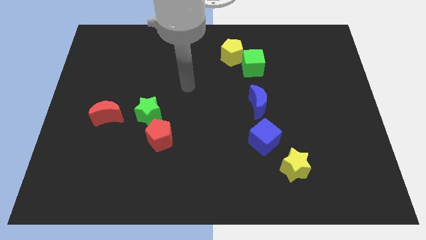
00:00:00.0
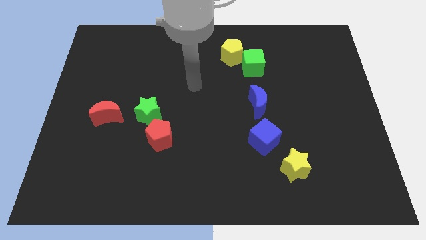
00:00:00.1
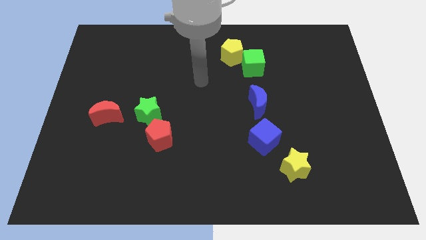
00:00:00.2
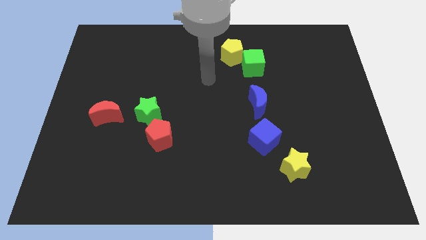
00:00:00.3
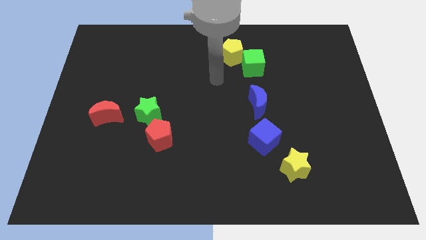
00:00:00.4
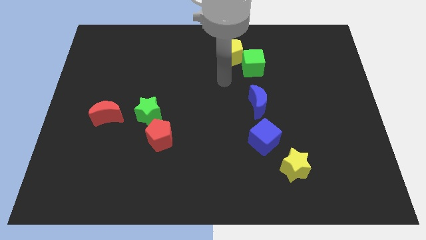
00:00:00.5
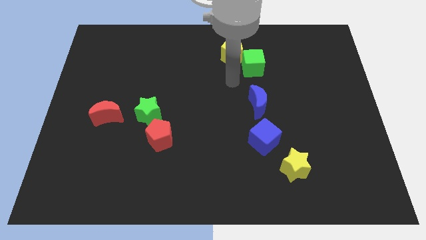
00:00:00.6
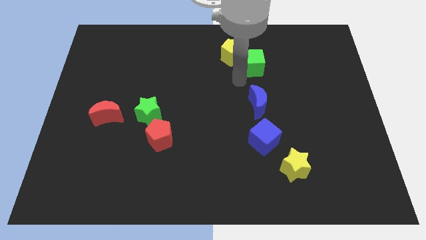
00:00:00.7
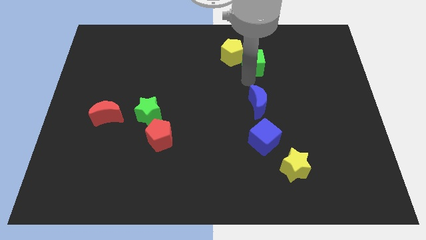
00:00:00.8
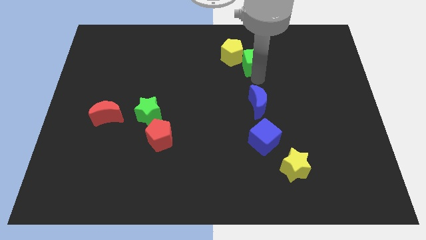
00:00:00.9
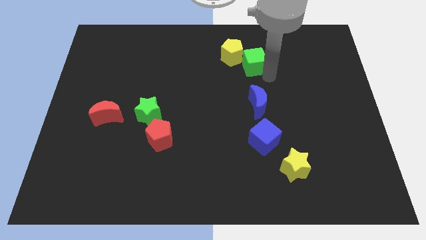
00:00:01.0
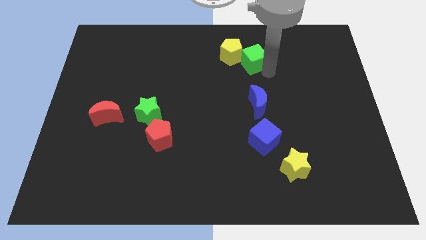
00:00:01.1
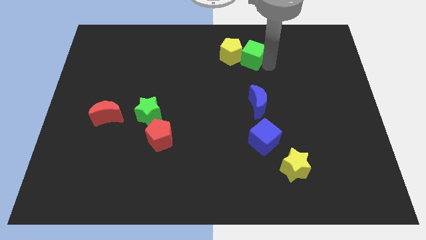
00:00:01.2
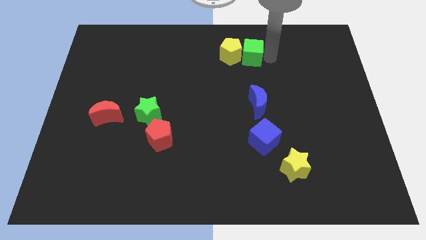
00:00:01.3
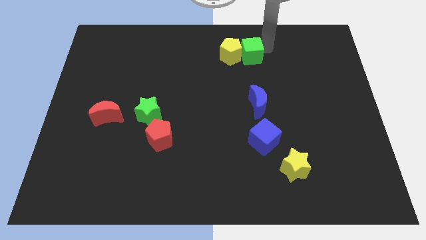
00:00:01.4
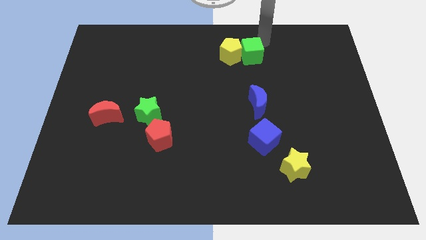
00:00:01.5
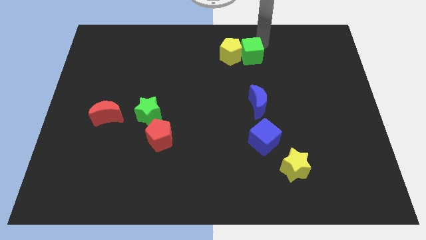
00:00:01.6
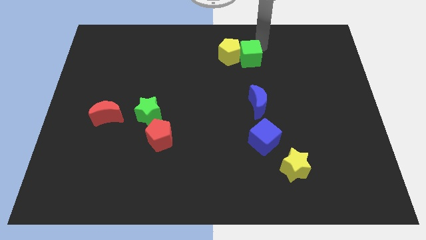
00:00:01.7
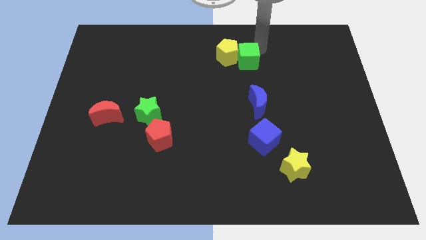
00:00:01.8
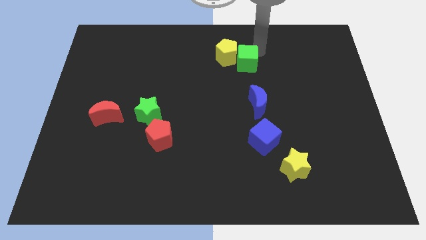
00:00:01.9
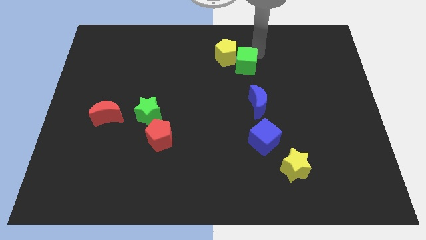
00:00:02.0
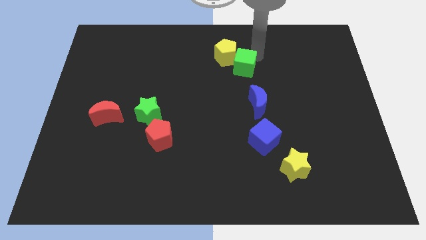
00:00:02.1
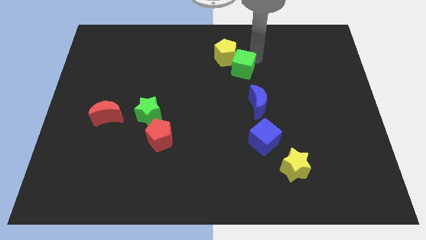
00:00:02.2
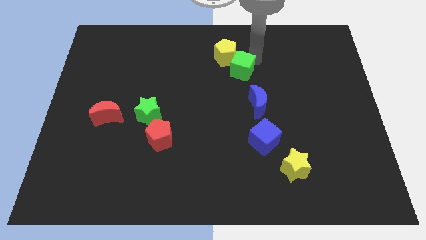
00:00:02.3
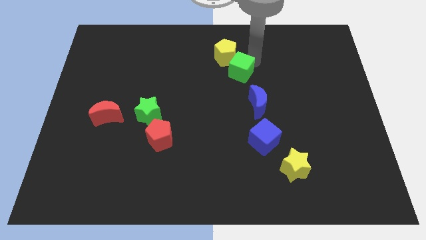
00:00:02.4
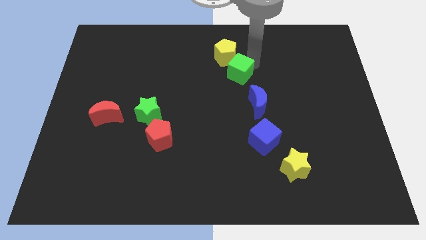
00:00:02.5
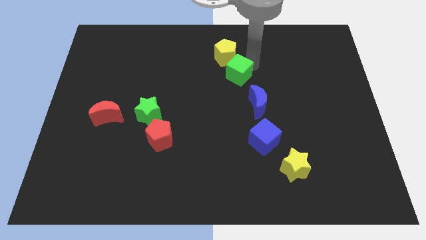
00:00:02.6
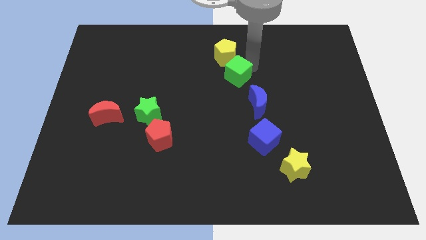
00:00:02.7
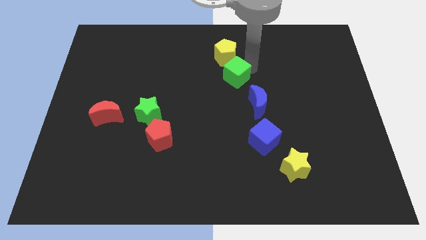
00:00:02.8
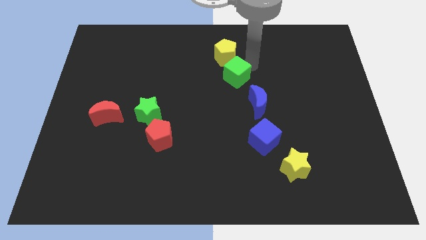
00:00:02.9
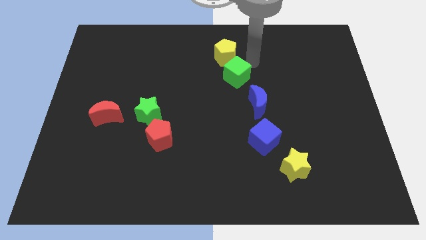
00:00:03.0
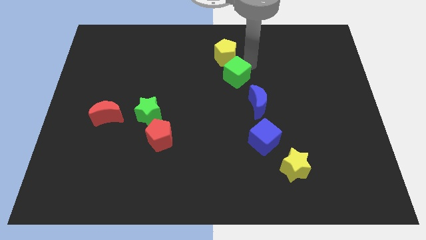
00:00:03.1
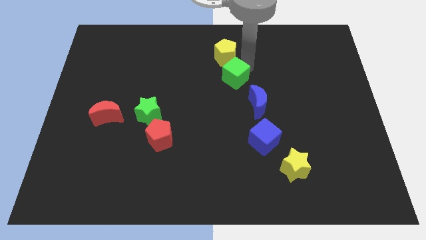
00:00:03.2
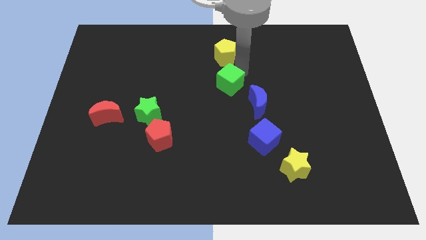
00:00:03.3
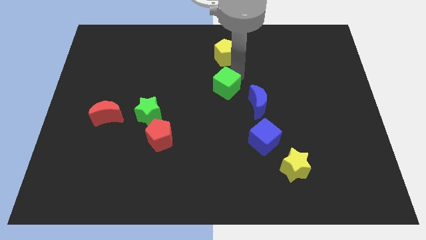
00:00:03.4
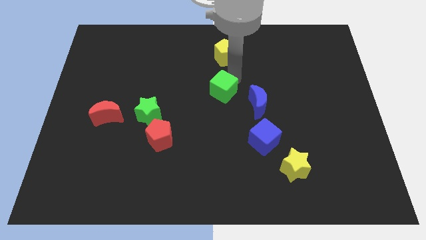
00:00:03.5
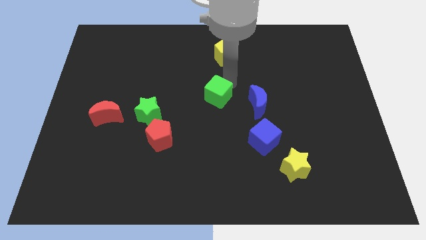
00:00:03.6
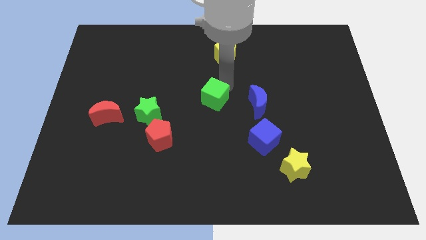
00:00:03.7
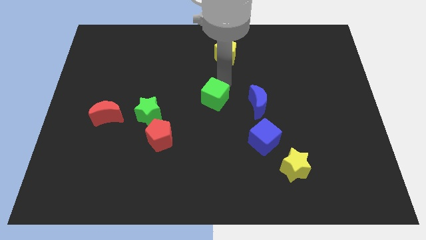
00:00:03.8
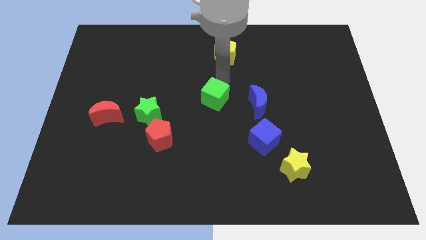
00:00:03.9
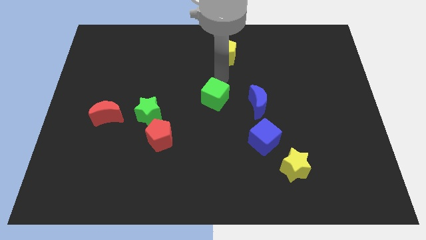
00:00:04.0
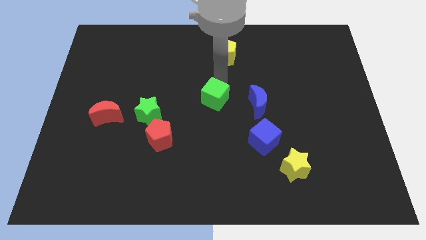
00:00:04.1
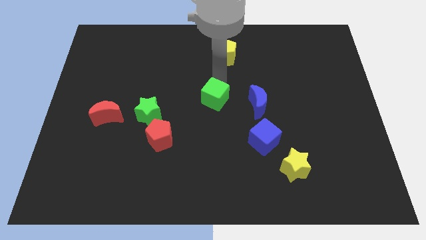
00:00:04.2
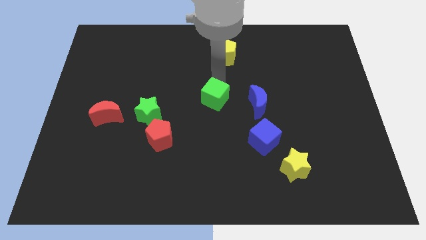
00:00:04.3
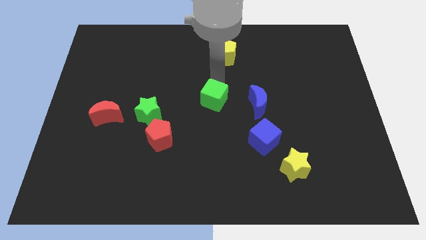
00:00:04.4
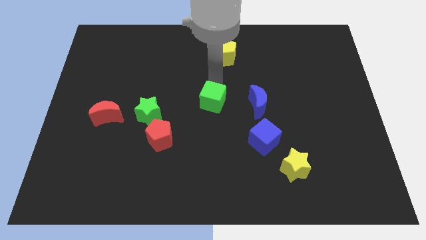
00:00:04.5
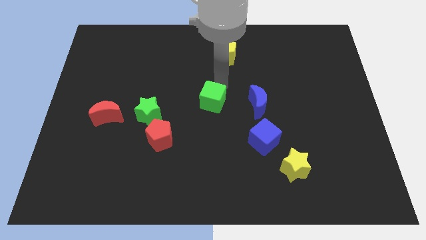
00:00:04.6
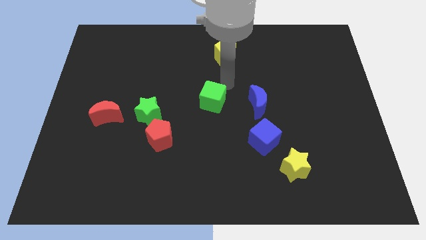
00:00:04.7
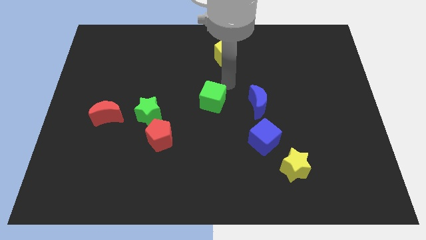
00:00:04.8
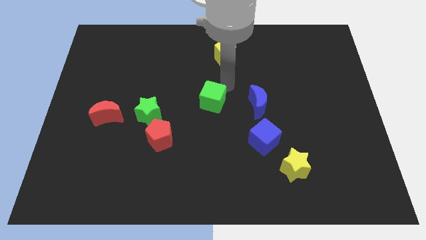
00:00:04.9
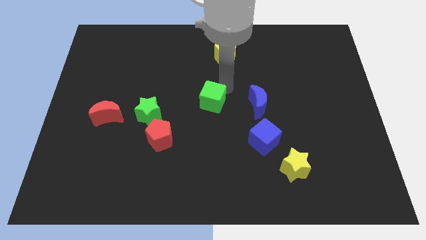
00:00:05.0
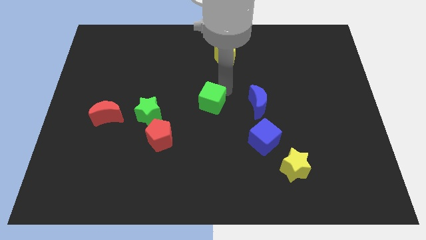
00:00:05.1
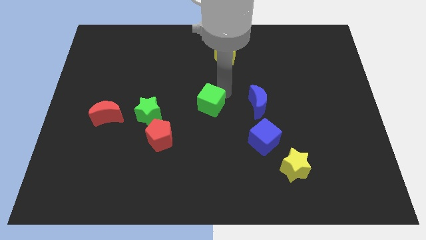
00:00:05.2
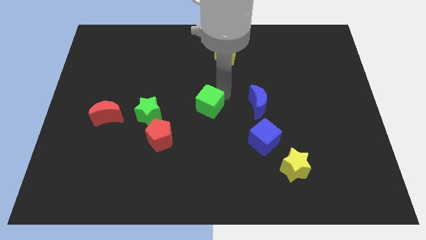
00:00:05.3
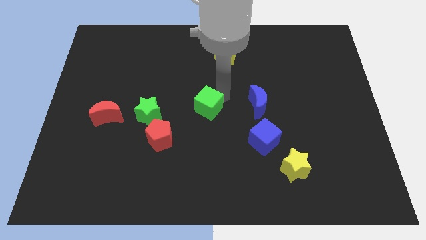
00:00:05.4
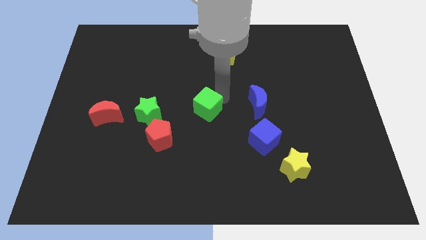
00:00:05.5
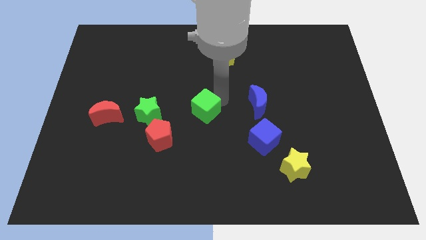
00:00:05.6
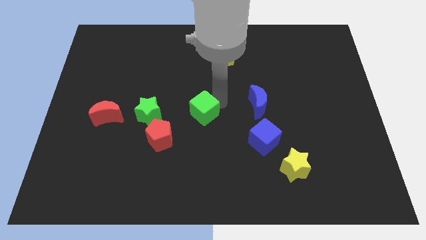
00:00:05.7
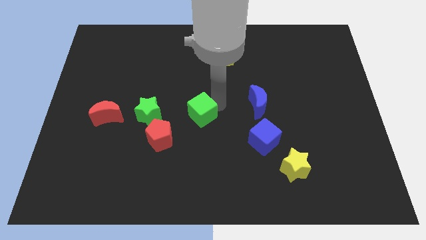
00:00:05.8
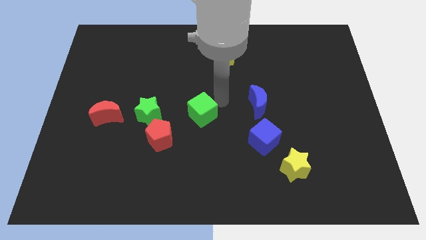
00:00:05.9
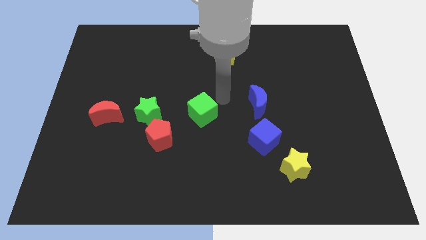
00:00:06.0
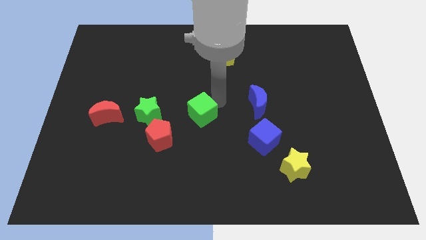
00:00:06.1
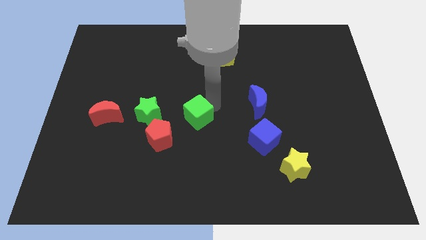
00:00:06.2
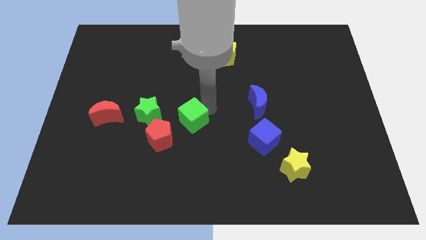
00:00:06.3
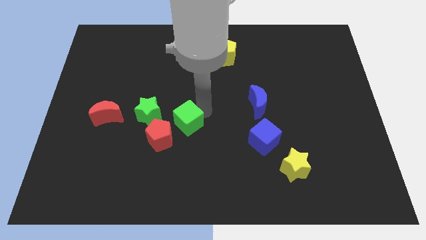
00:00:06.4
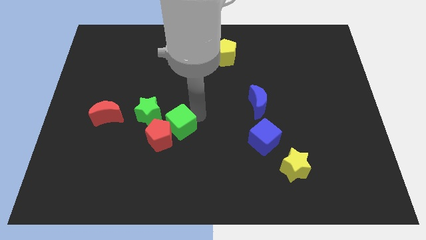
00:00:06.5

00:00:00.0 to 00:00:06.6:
push the green cube towards the red pentagon
